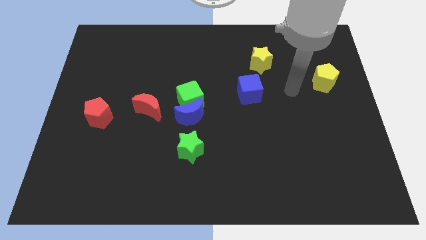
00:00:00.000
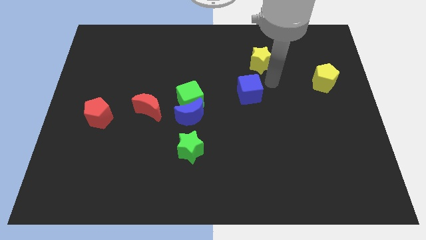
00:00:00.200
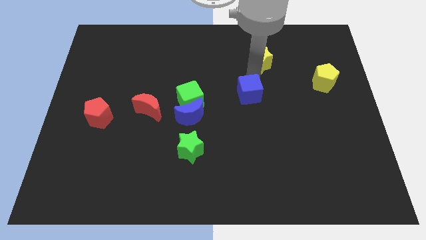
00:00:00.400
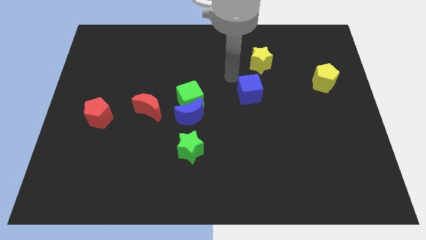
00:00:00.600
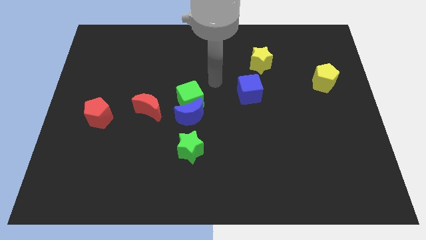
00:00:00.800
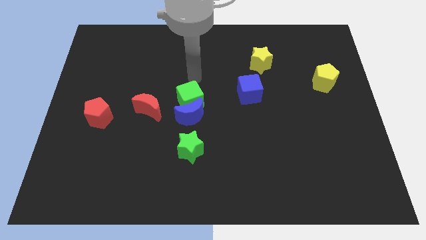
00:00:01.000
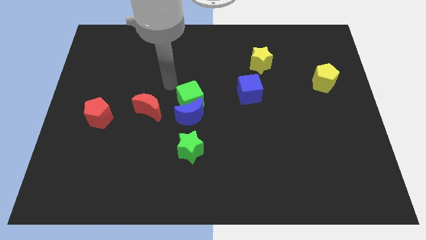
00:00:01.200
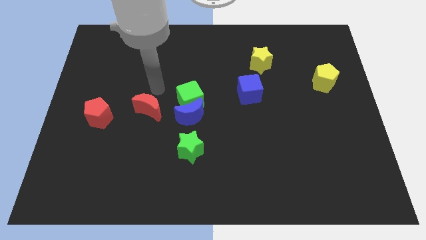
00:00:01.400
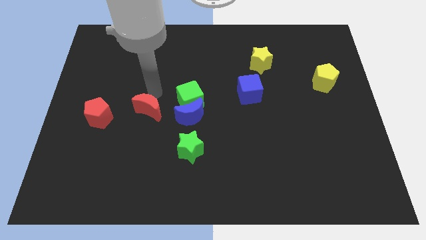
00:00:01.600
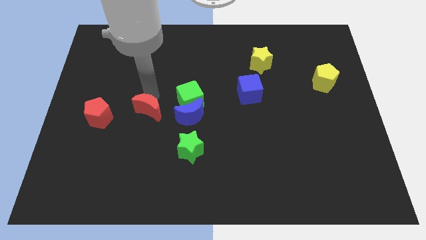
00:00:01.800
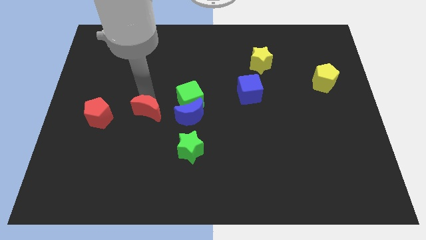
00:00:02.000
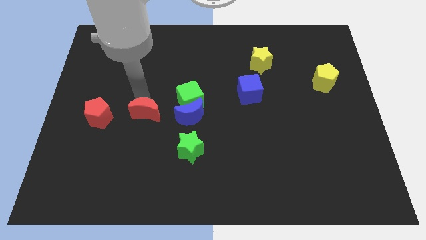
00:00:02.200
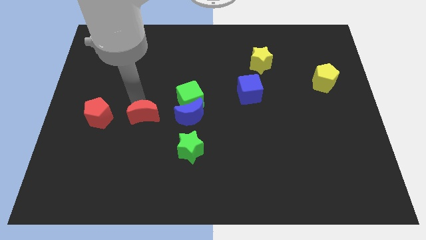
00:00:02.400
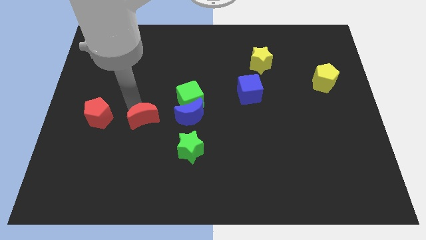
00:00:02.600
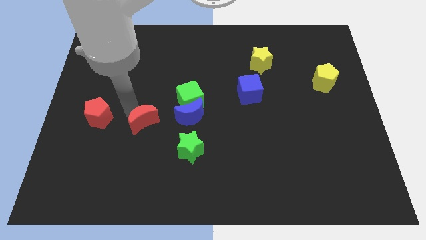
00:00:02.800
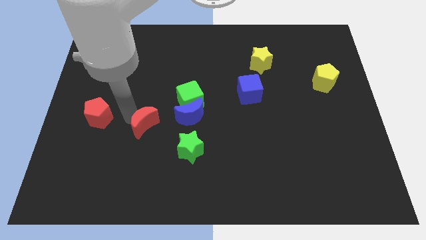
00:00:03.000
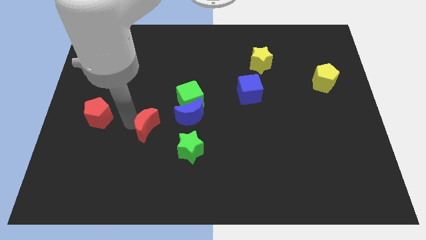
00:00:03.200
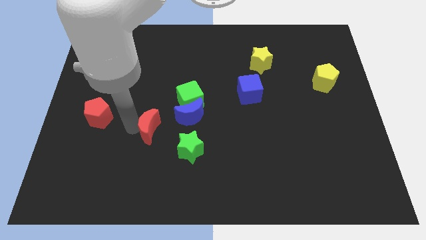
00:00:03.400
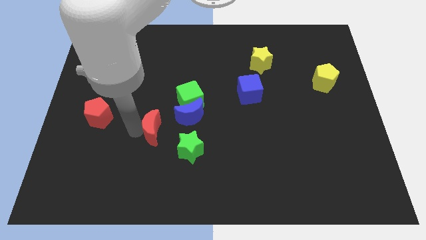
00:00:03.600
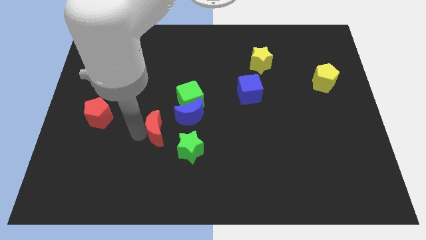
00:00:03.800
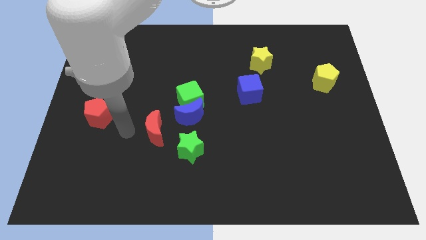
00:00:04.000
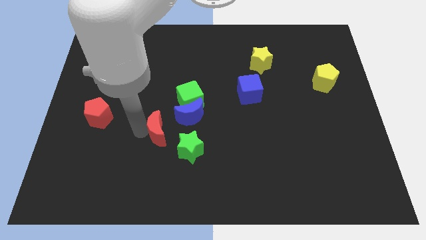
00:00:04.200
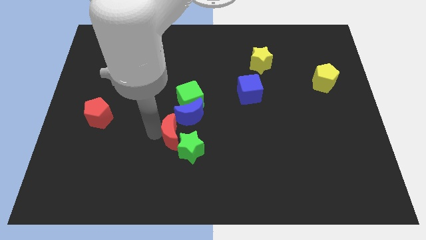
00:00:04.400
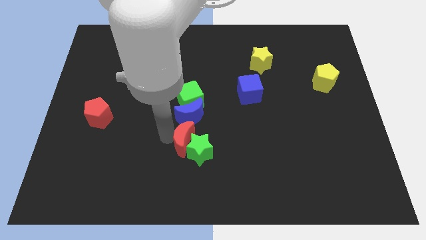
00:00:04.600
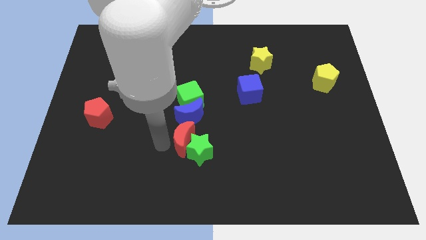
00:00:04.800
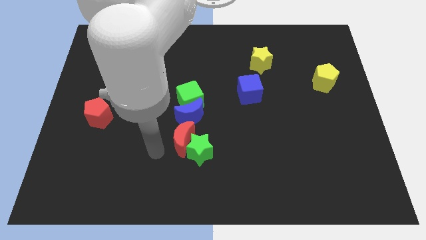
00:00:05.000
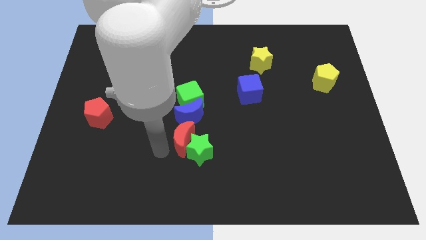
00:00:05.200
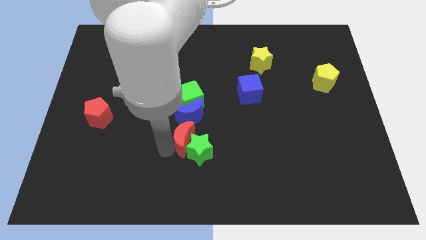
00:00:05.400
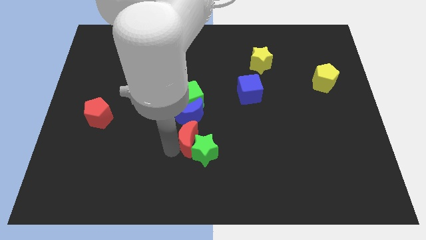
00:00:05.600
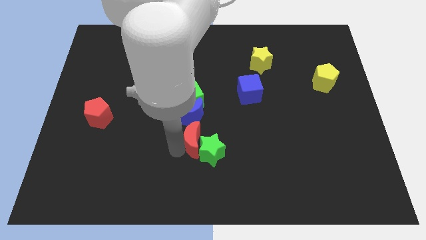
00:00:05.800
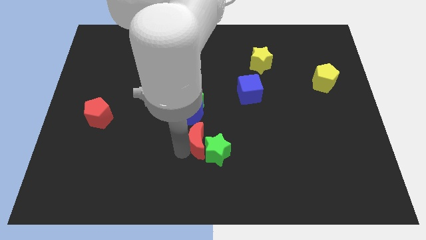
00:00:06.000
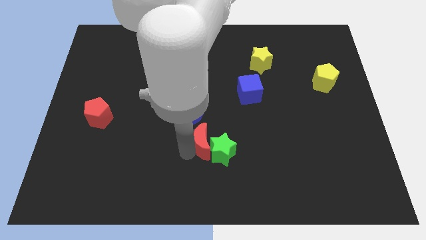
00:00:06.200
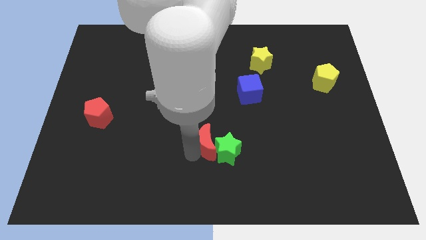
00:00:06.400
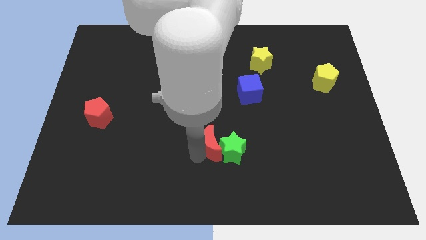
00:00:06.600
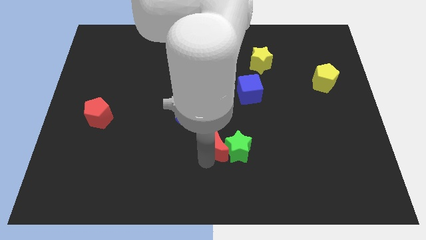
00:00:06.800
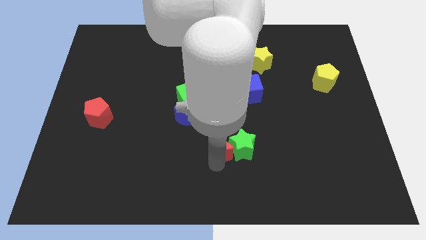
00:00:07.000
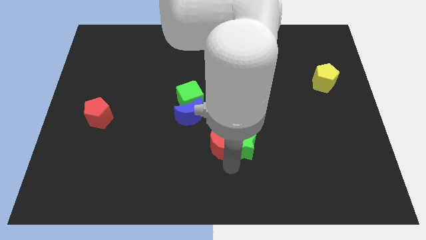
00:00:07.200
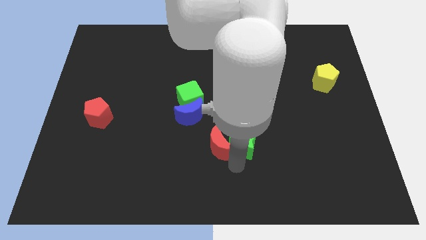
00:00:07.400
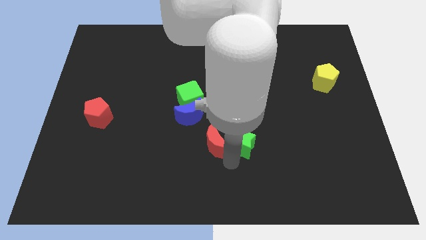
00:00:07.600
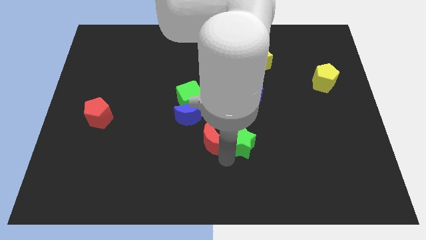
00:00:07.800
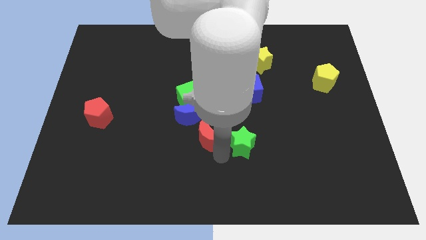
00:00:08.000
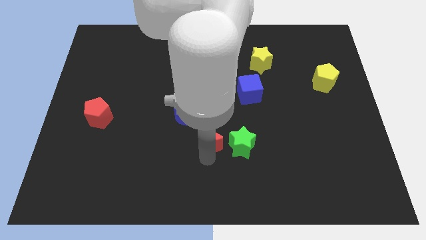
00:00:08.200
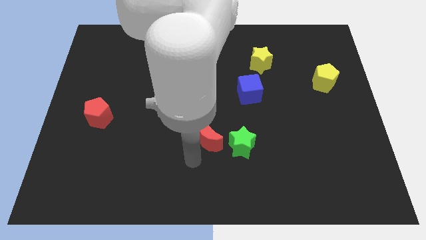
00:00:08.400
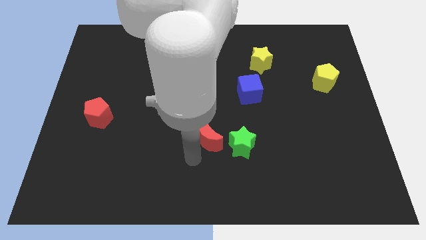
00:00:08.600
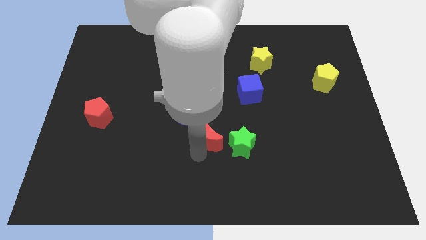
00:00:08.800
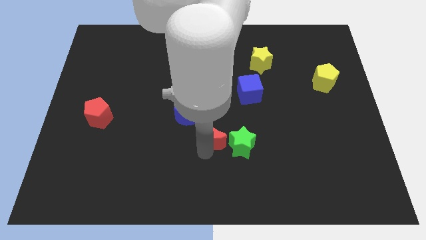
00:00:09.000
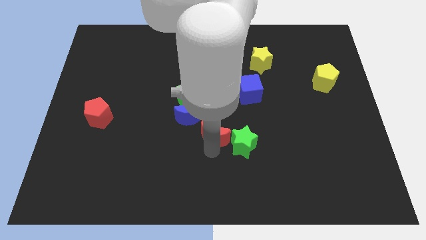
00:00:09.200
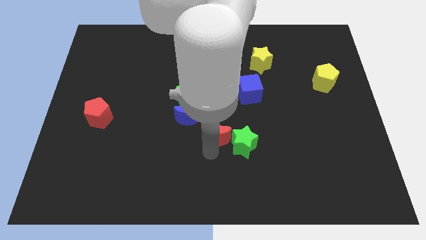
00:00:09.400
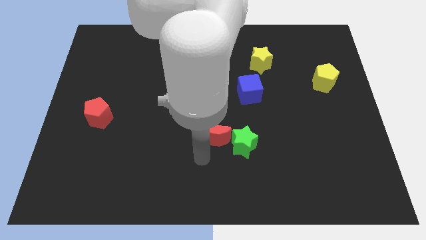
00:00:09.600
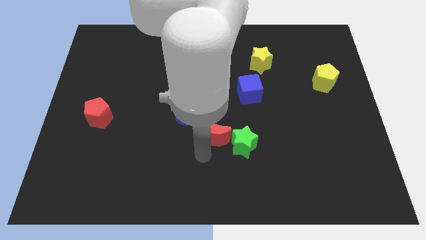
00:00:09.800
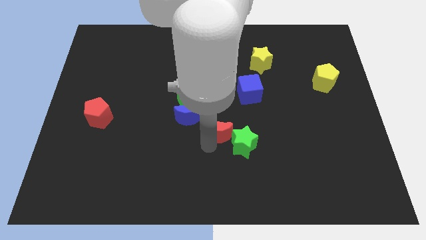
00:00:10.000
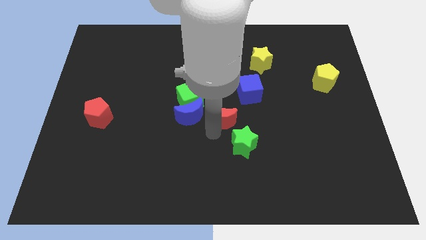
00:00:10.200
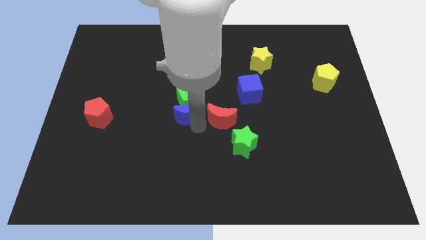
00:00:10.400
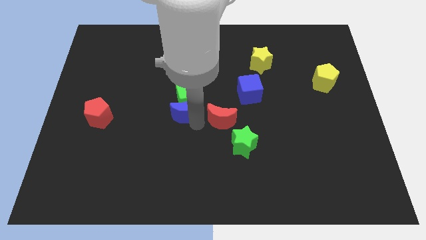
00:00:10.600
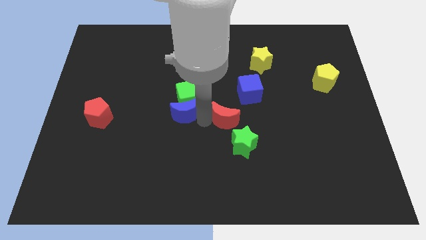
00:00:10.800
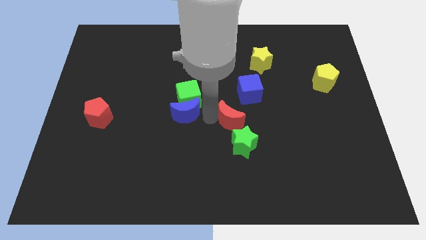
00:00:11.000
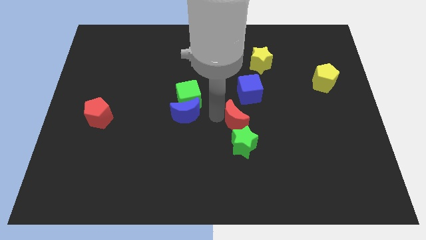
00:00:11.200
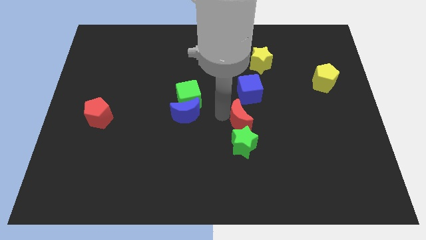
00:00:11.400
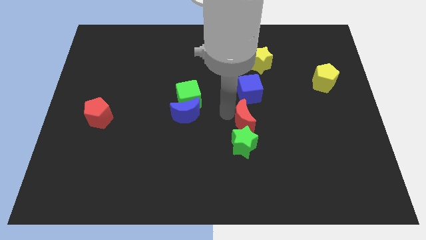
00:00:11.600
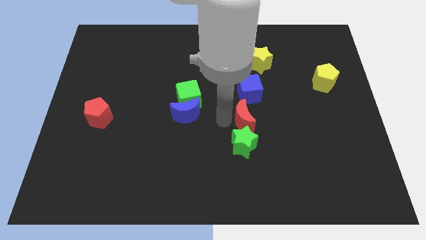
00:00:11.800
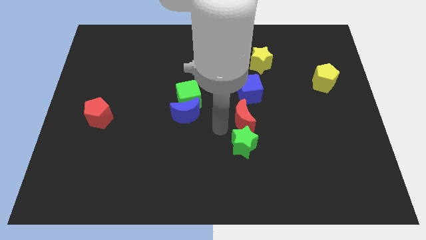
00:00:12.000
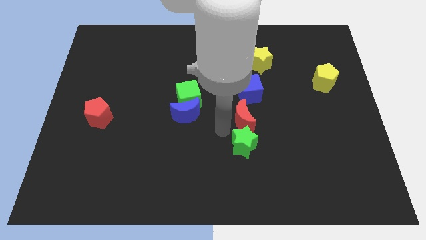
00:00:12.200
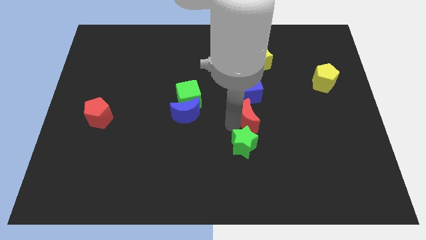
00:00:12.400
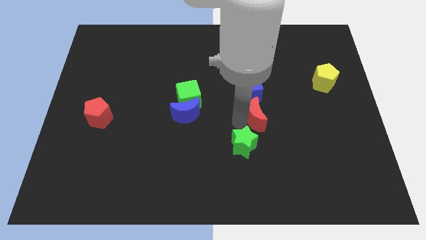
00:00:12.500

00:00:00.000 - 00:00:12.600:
slide the red moon to the bottom right of the blue cube
